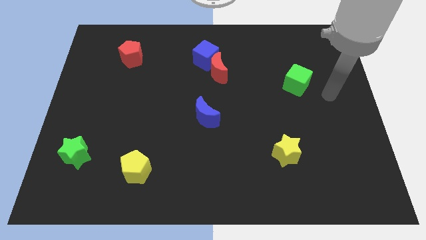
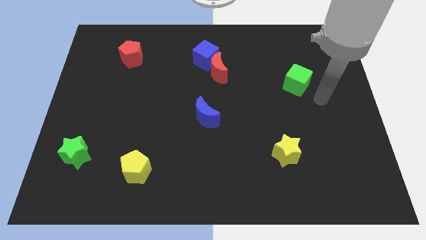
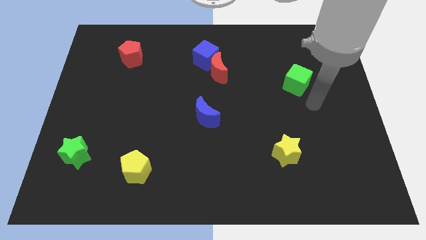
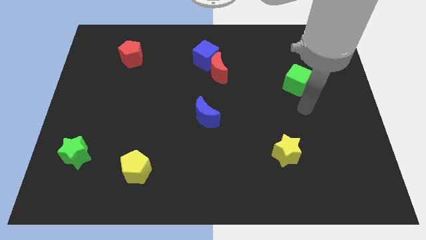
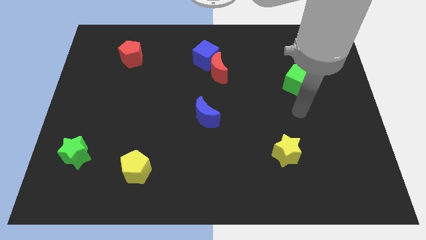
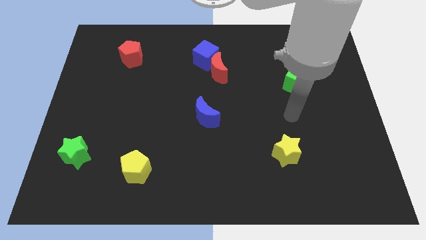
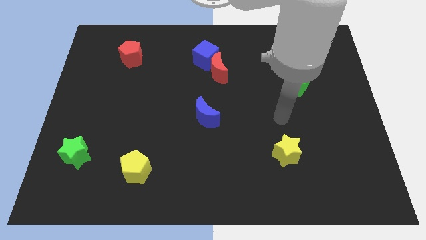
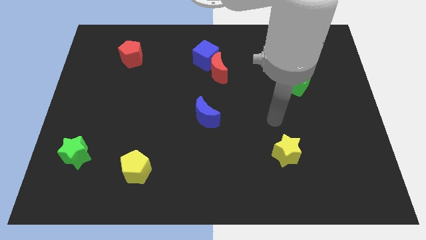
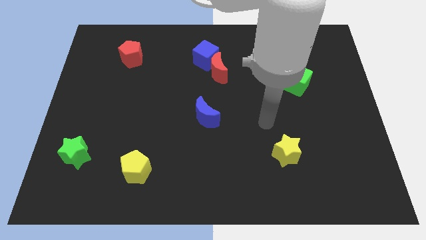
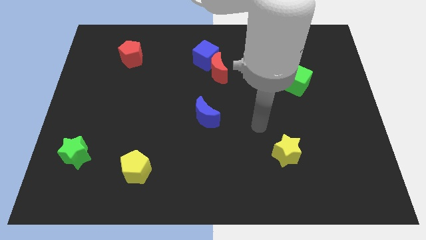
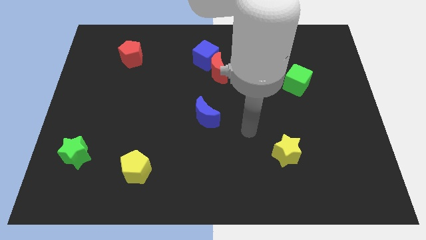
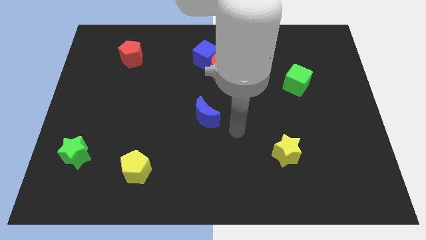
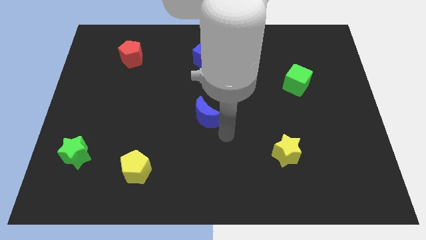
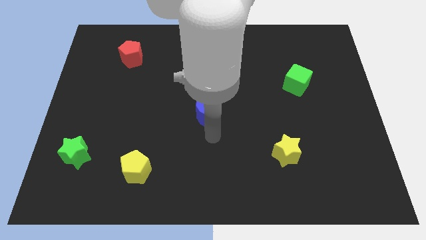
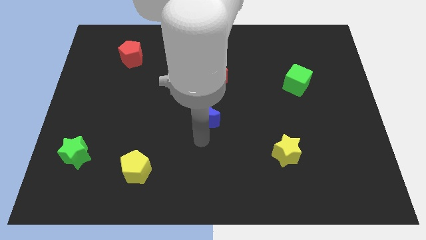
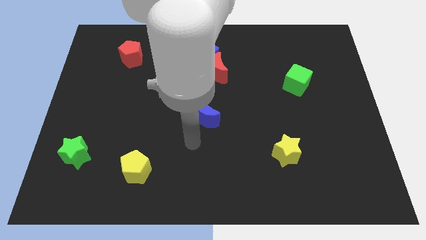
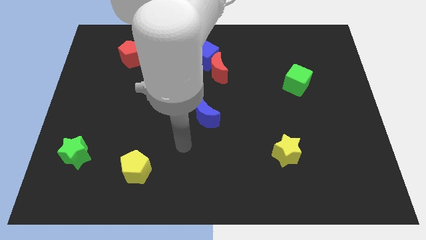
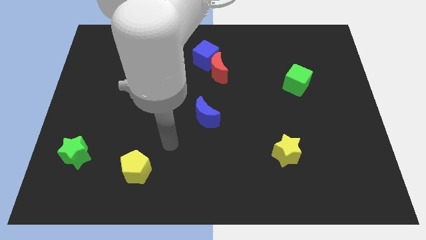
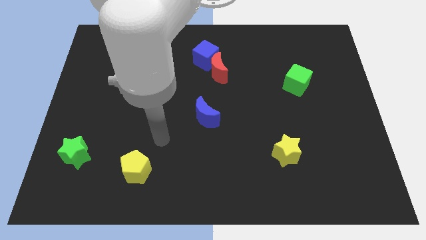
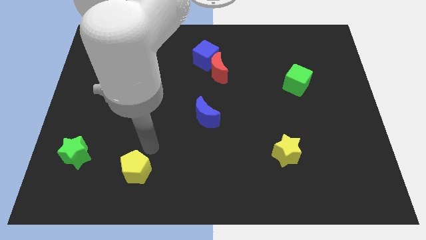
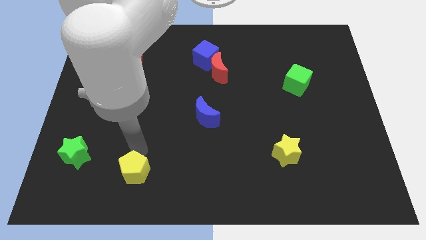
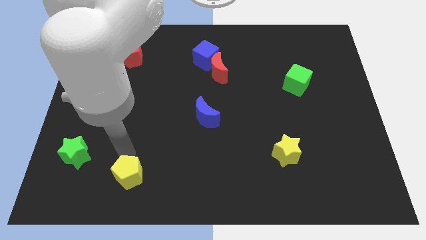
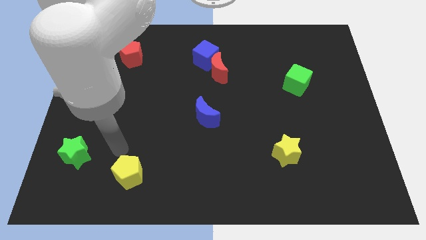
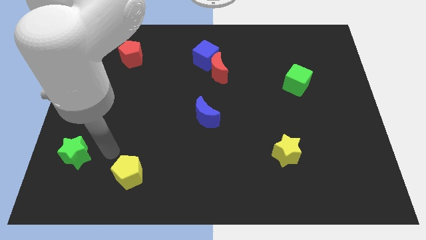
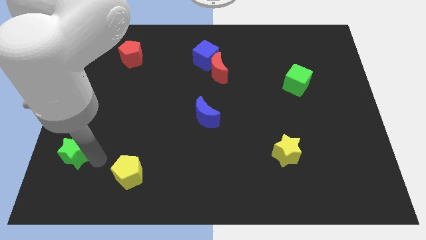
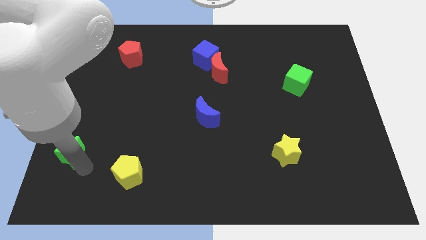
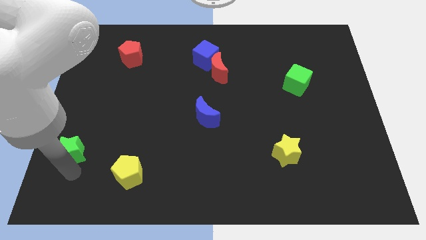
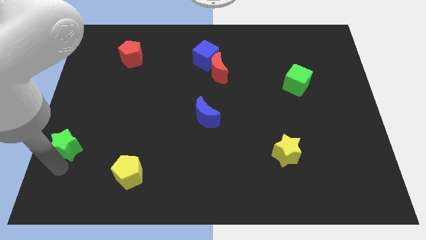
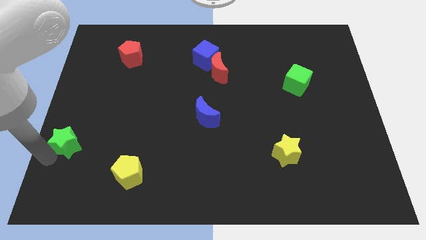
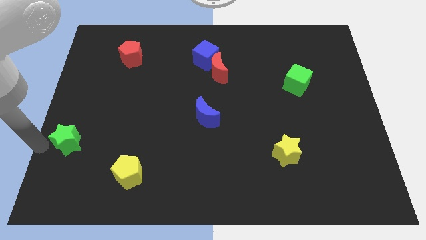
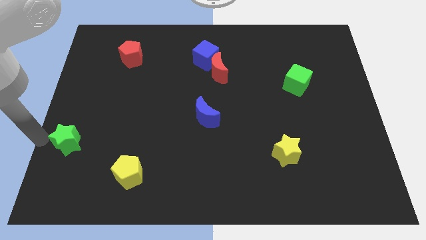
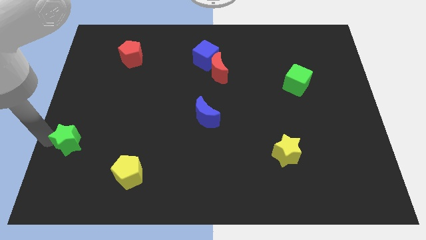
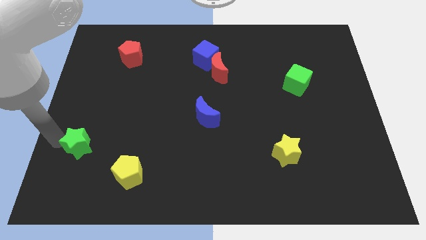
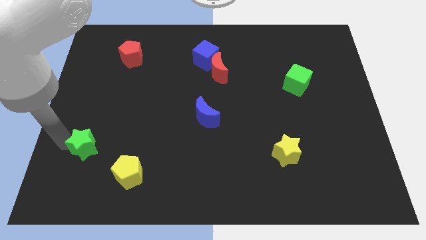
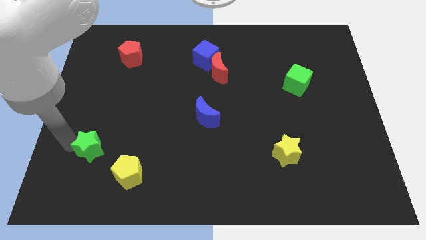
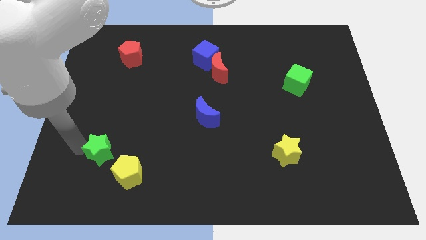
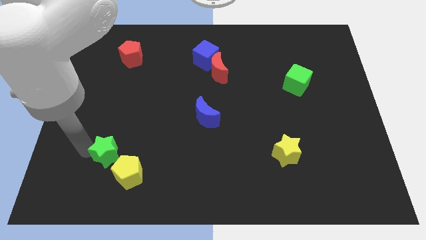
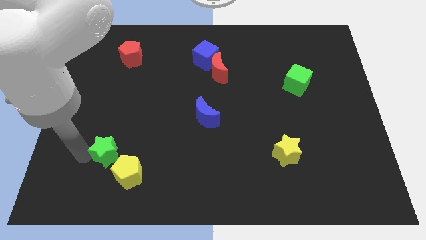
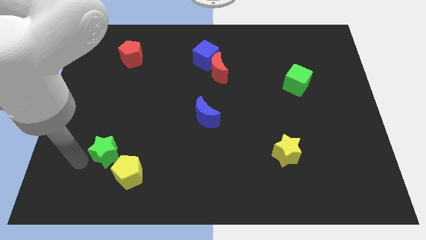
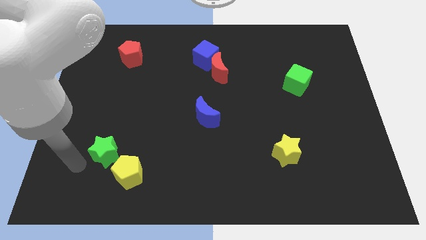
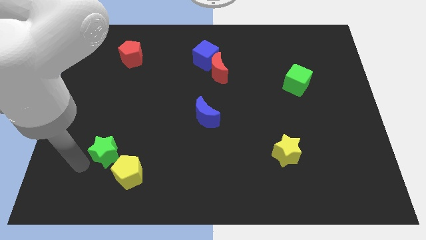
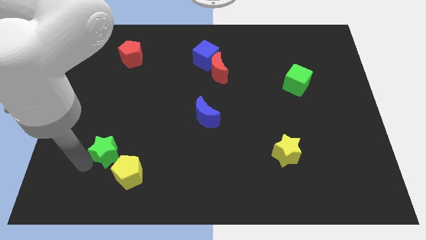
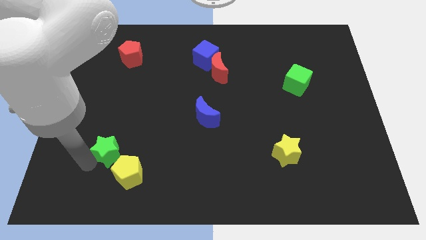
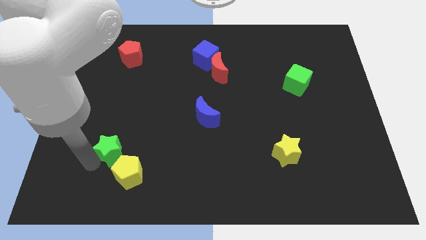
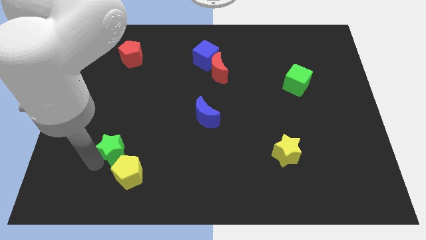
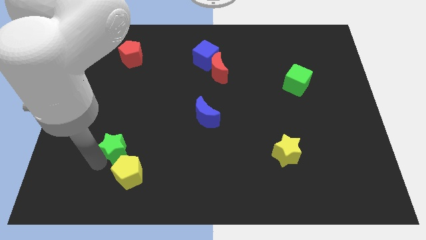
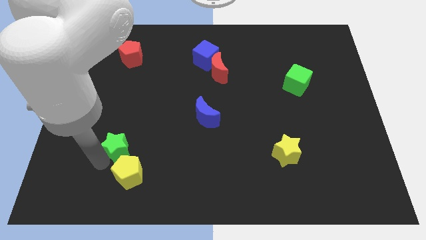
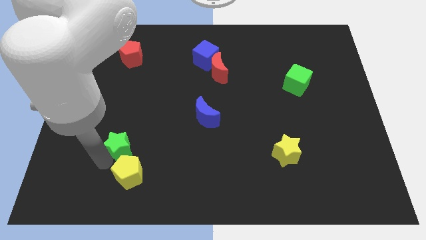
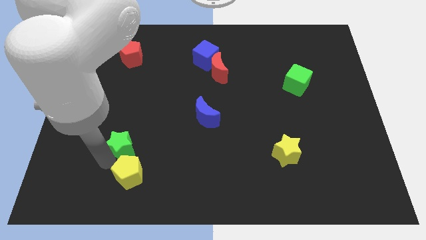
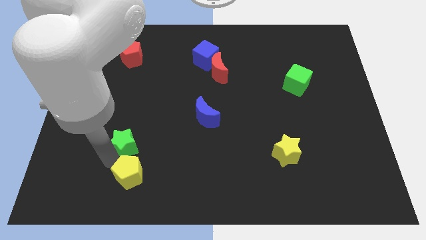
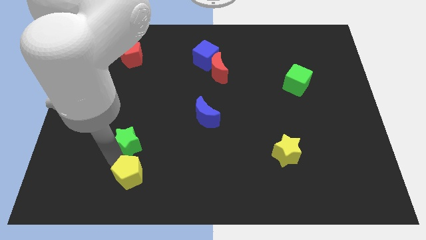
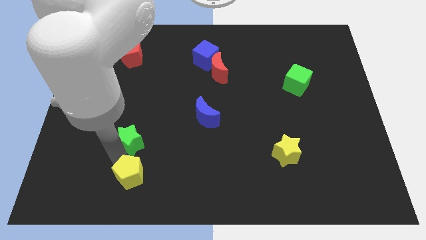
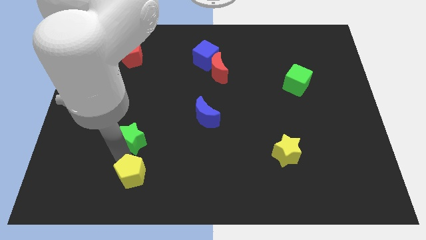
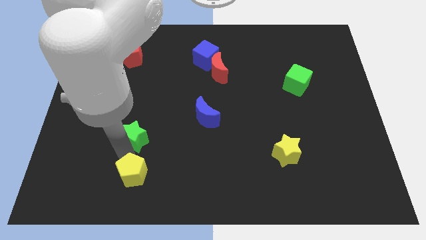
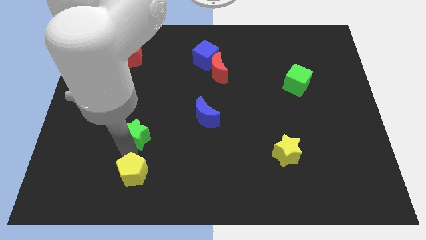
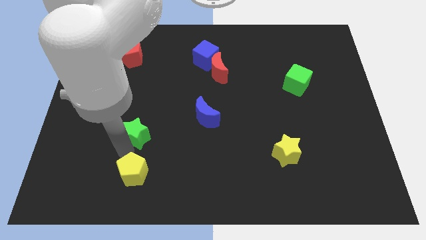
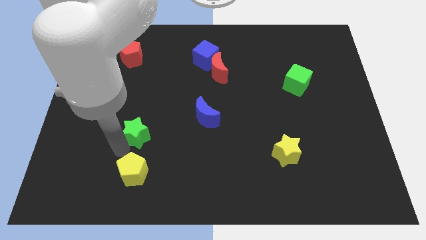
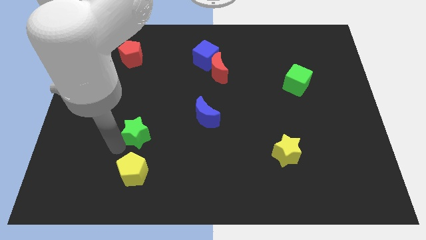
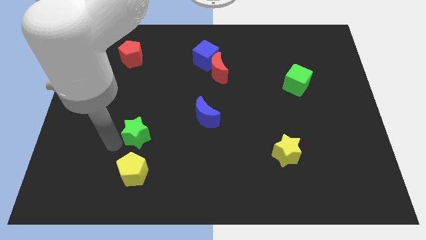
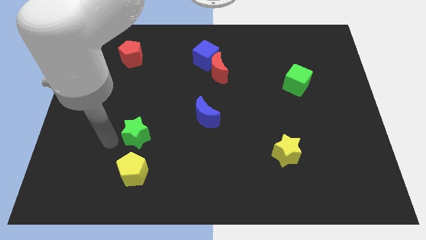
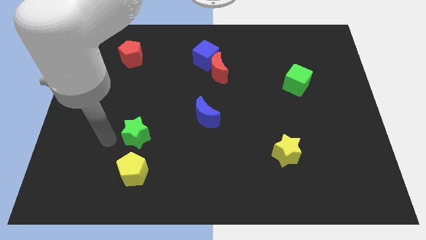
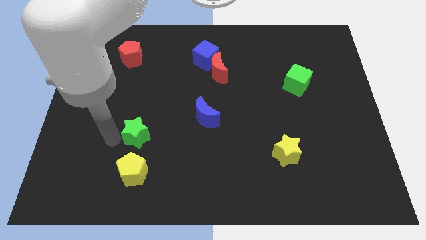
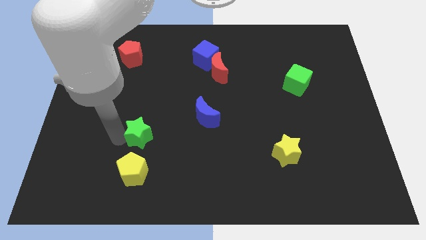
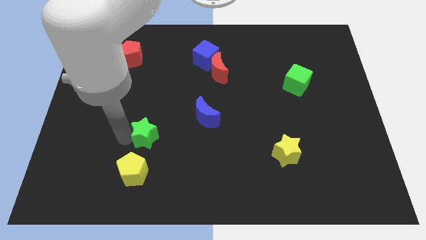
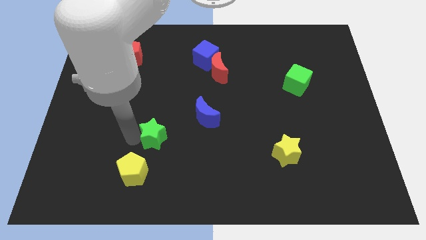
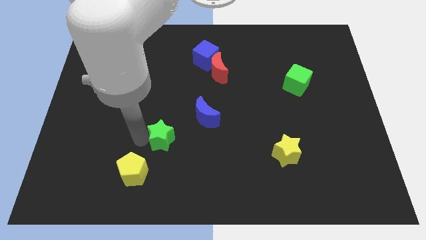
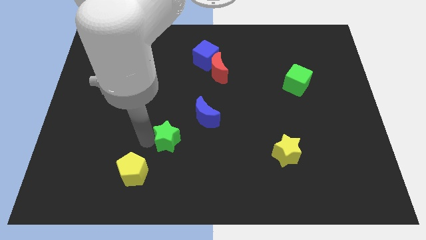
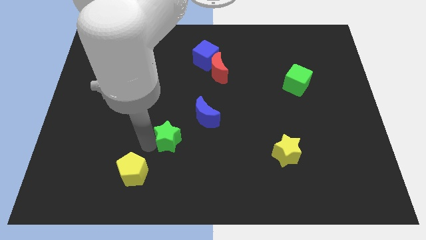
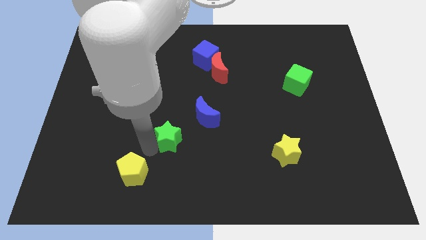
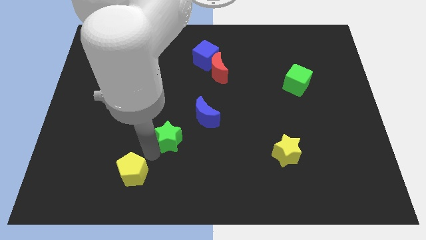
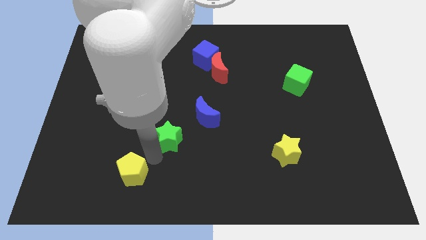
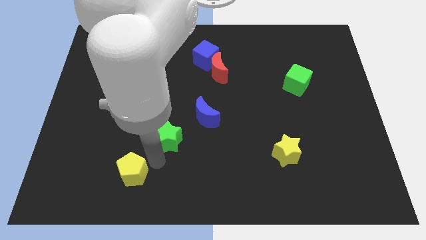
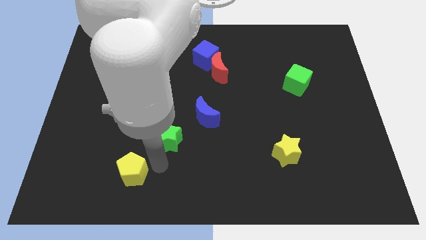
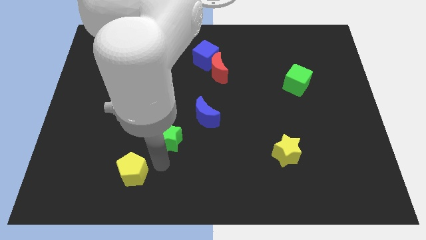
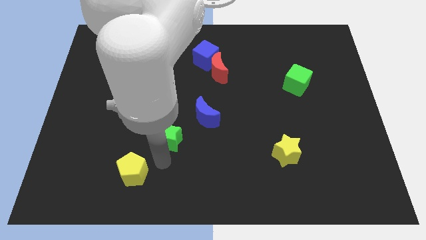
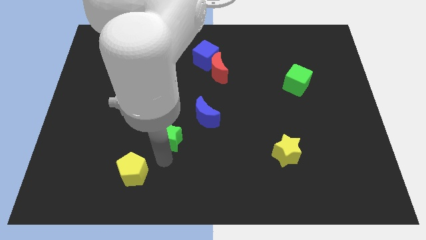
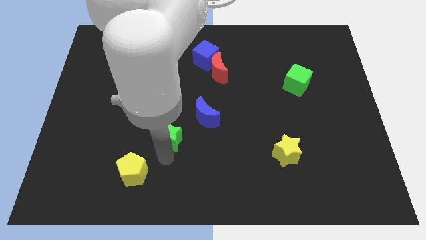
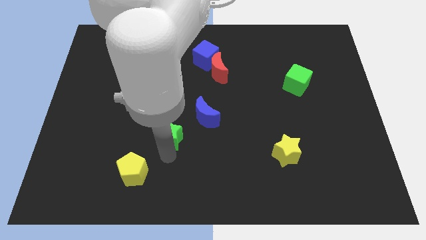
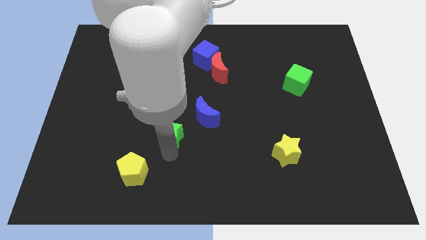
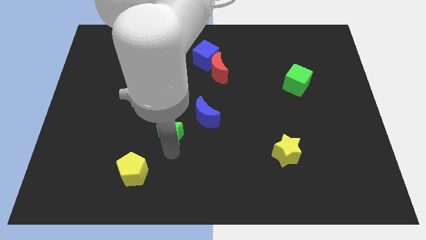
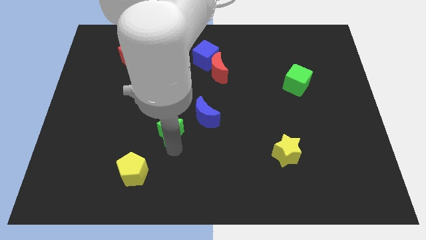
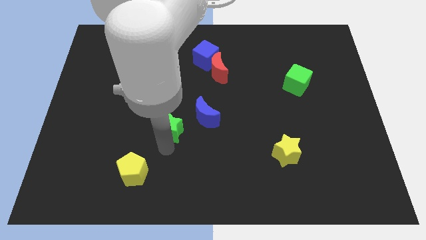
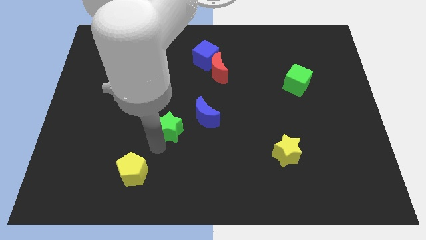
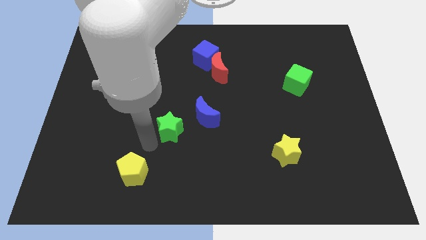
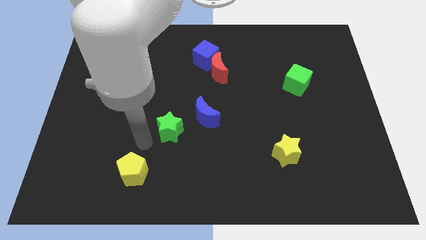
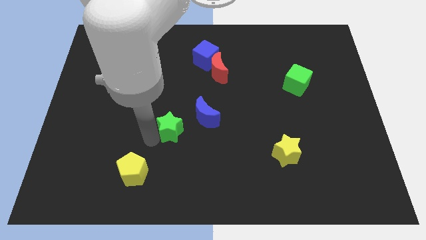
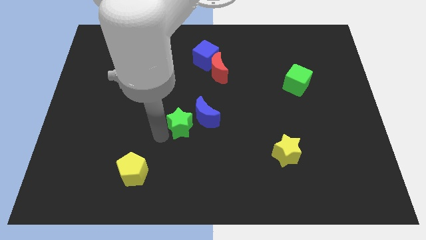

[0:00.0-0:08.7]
slide the green star to the blue moon
